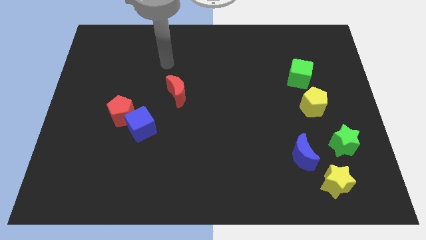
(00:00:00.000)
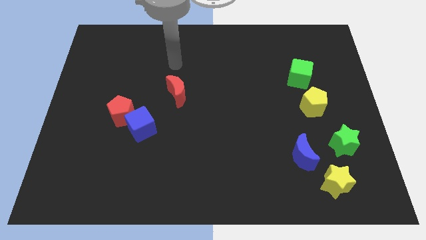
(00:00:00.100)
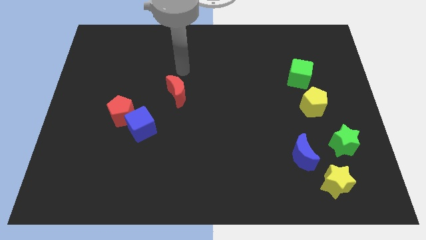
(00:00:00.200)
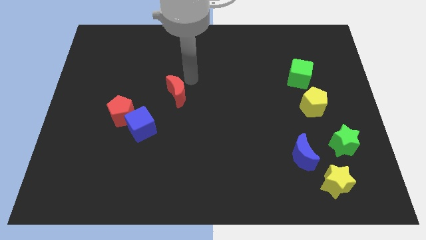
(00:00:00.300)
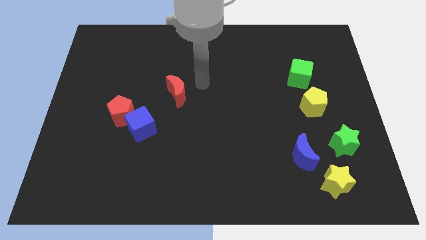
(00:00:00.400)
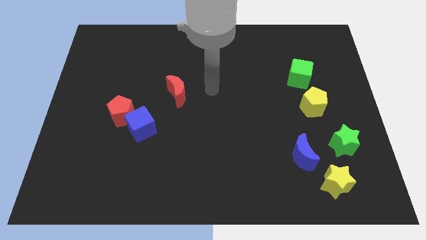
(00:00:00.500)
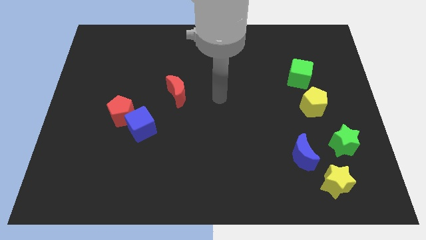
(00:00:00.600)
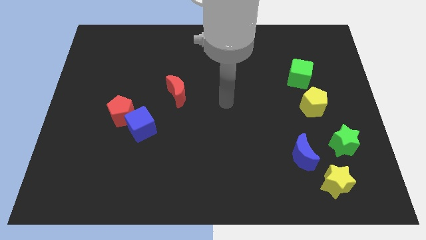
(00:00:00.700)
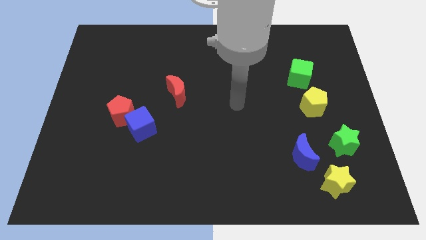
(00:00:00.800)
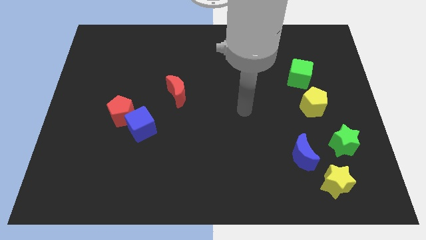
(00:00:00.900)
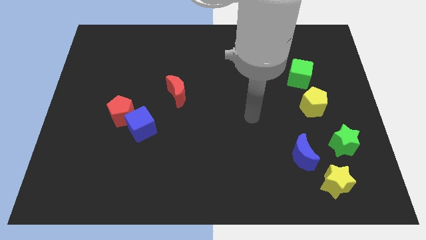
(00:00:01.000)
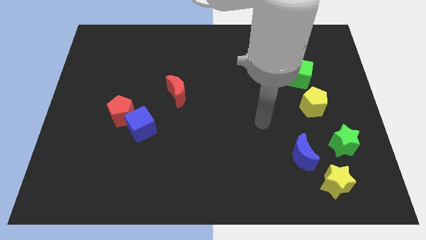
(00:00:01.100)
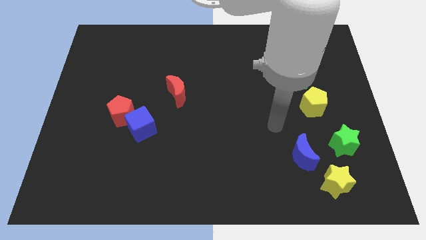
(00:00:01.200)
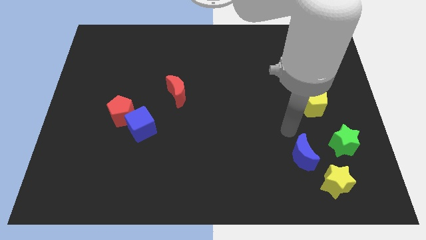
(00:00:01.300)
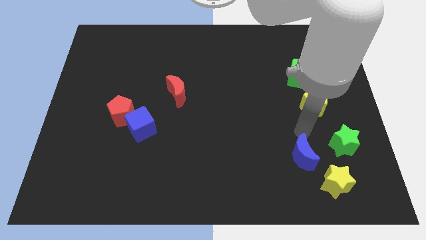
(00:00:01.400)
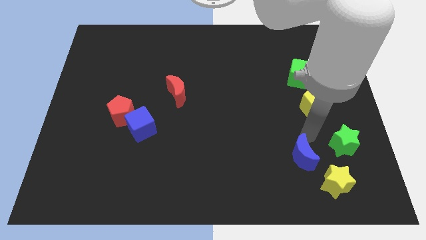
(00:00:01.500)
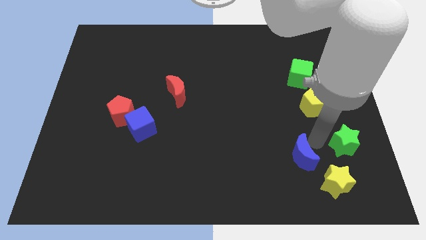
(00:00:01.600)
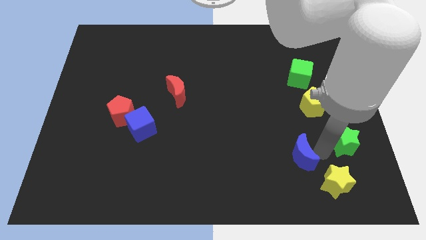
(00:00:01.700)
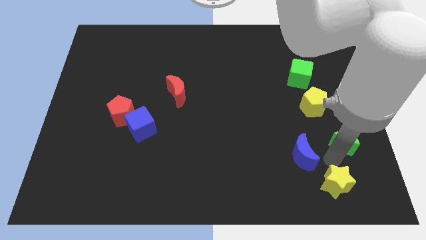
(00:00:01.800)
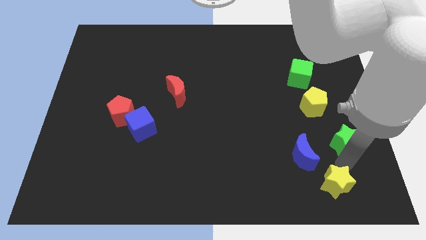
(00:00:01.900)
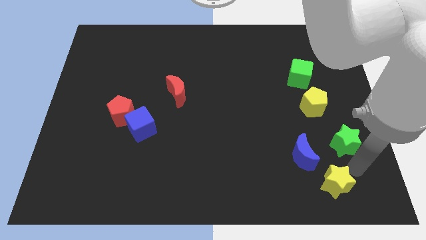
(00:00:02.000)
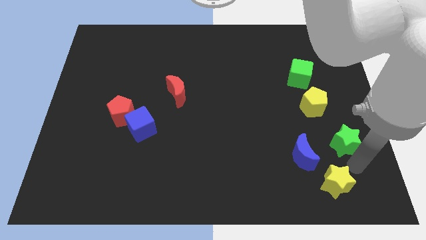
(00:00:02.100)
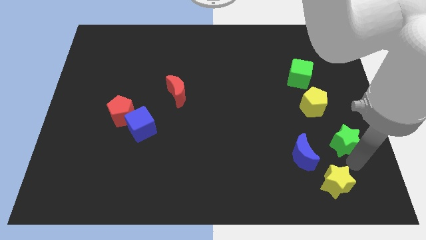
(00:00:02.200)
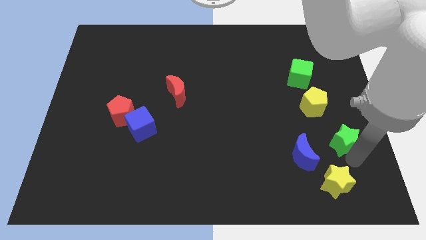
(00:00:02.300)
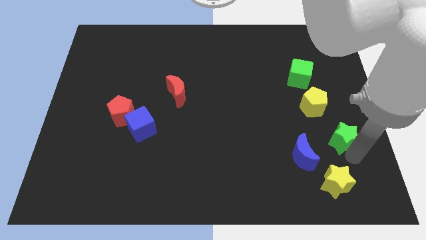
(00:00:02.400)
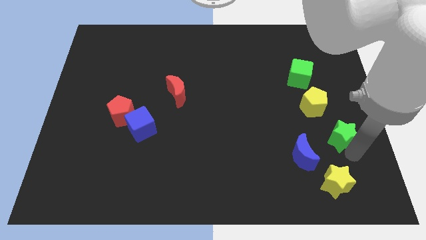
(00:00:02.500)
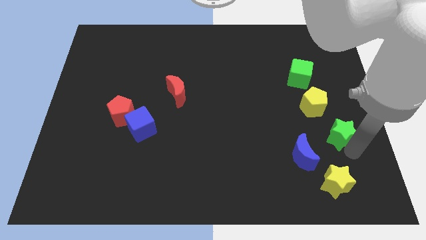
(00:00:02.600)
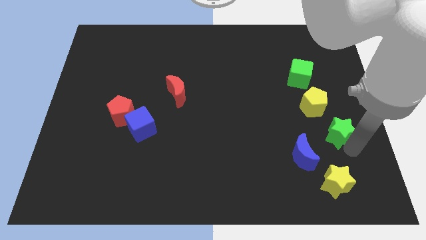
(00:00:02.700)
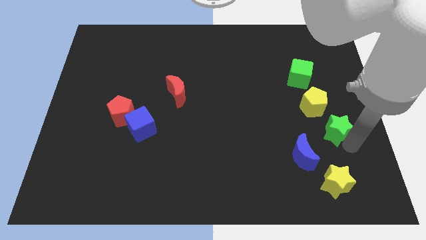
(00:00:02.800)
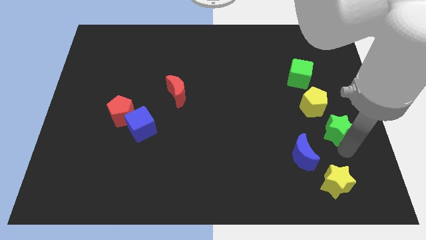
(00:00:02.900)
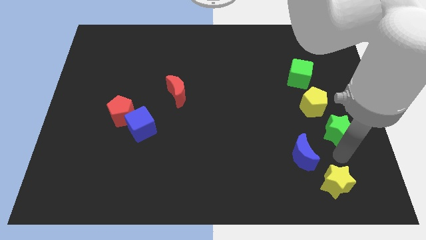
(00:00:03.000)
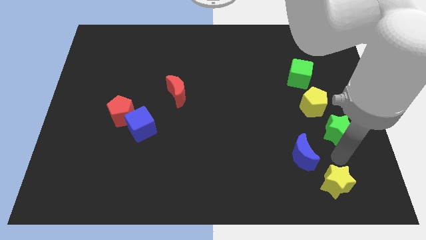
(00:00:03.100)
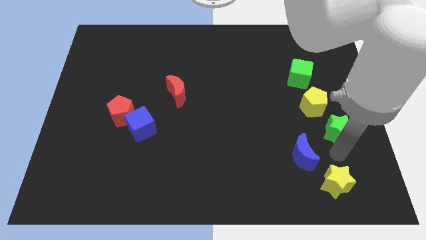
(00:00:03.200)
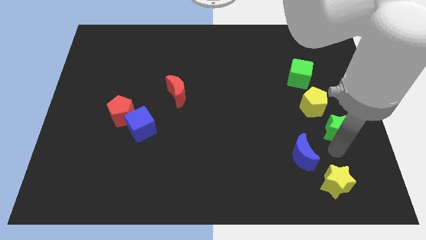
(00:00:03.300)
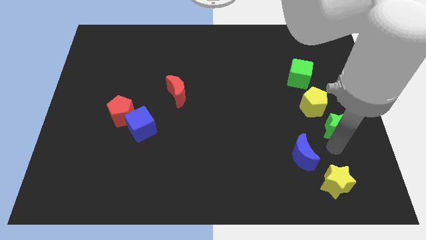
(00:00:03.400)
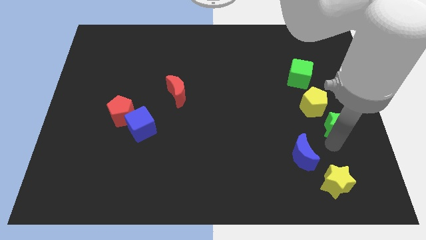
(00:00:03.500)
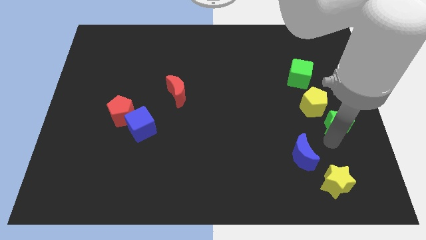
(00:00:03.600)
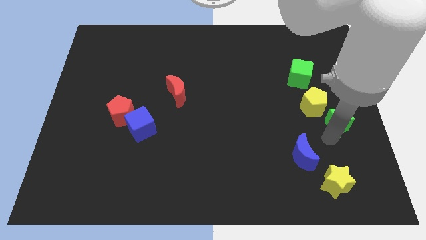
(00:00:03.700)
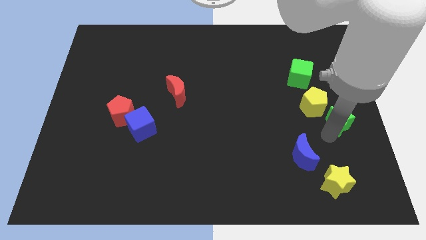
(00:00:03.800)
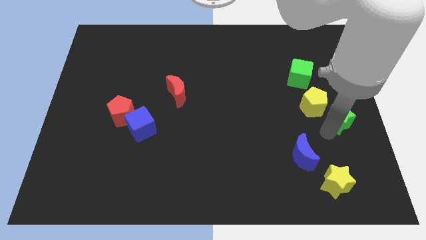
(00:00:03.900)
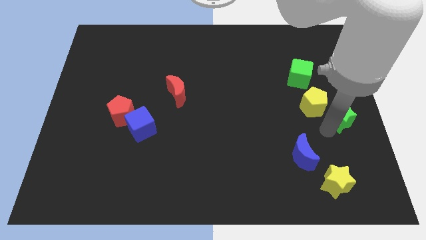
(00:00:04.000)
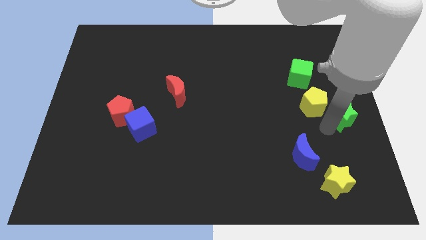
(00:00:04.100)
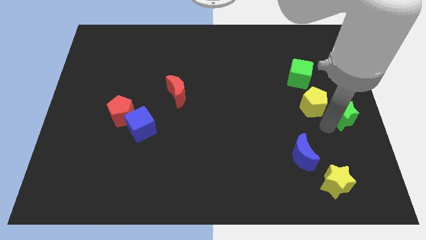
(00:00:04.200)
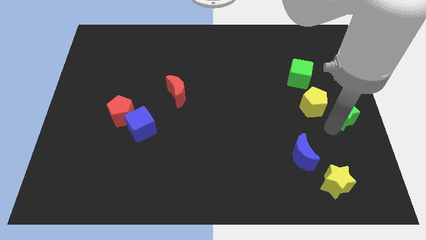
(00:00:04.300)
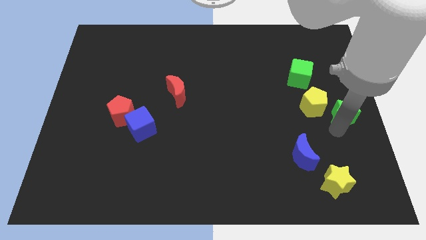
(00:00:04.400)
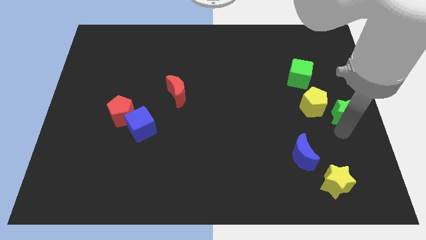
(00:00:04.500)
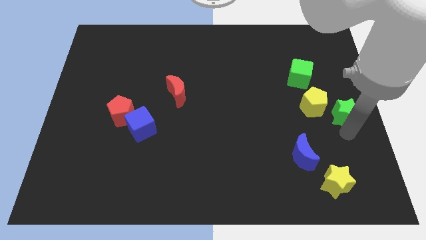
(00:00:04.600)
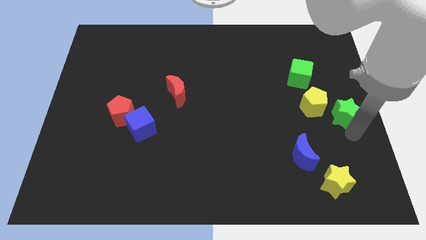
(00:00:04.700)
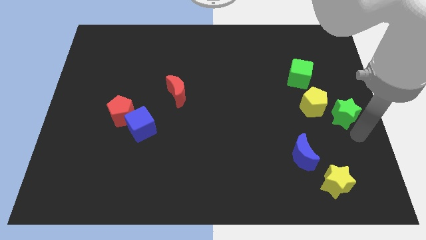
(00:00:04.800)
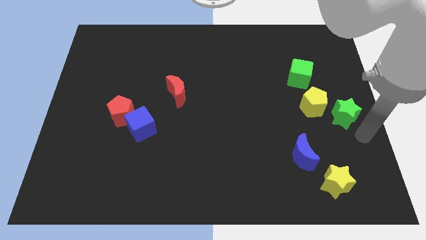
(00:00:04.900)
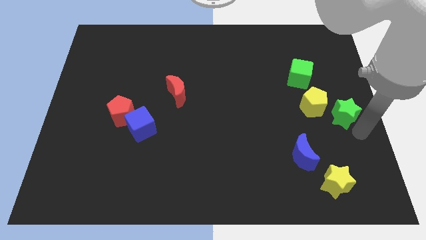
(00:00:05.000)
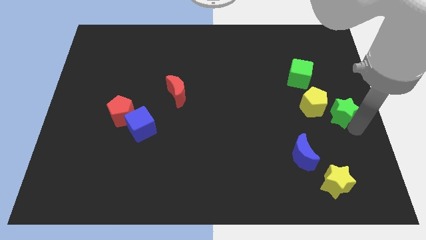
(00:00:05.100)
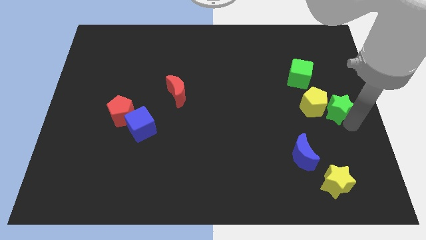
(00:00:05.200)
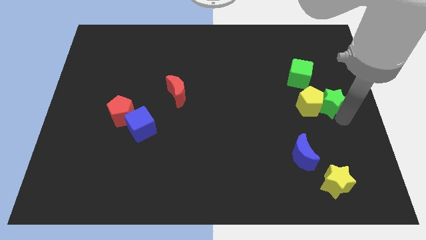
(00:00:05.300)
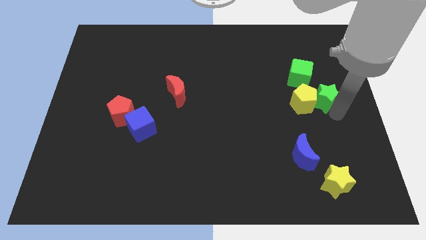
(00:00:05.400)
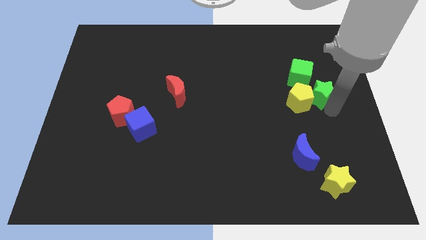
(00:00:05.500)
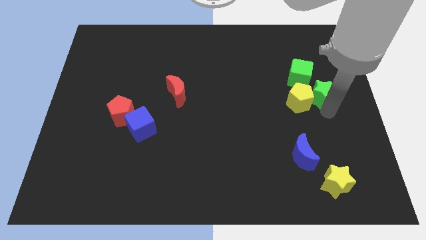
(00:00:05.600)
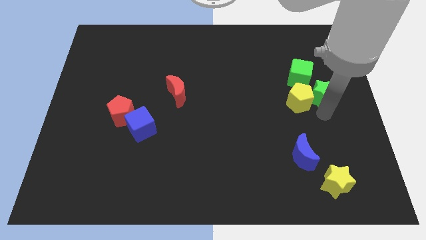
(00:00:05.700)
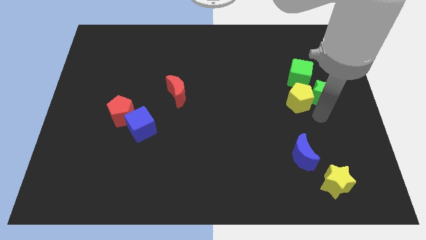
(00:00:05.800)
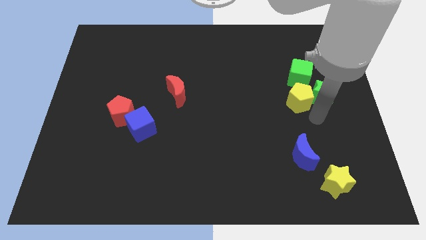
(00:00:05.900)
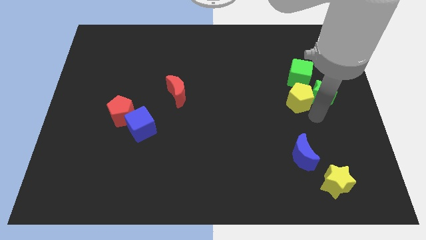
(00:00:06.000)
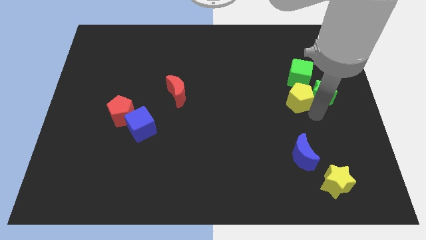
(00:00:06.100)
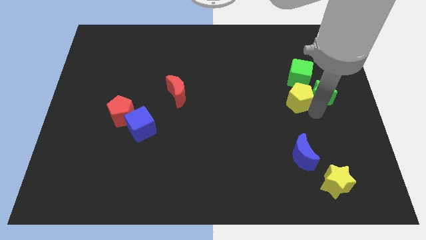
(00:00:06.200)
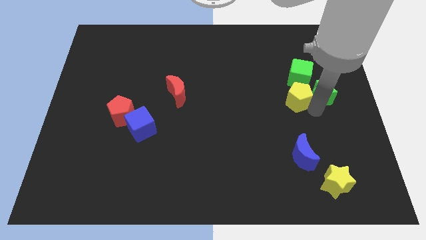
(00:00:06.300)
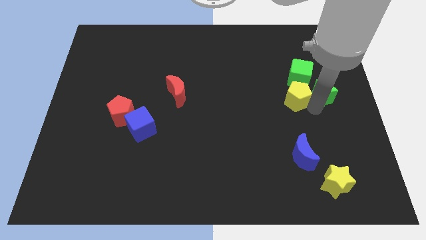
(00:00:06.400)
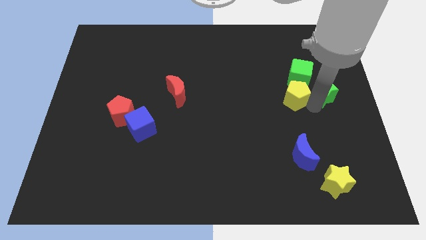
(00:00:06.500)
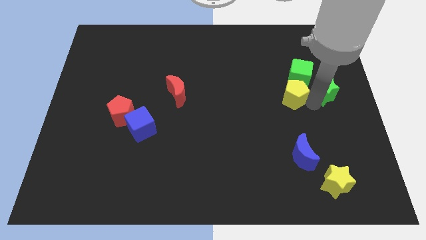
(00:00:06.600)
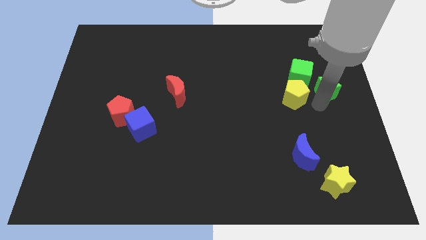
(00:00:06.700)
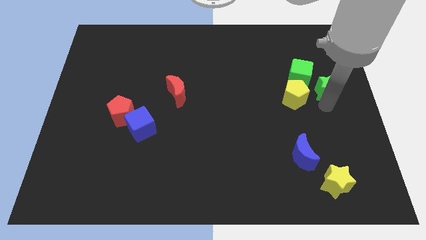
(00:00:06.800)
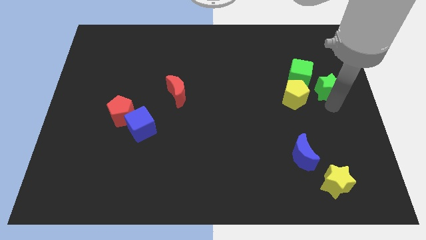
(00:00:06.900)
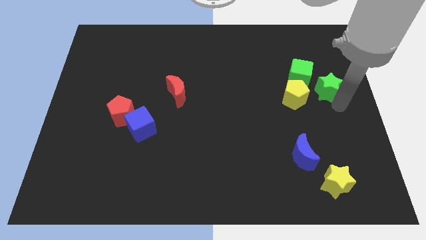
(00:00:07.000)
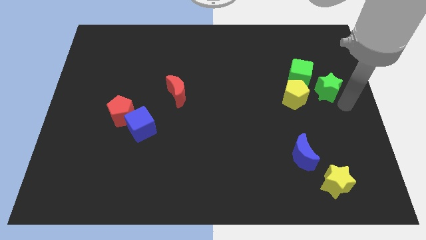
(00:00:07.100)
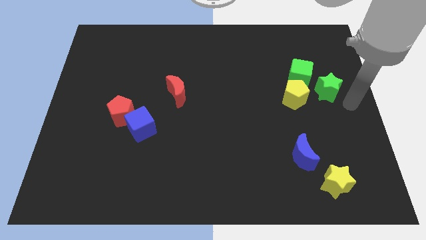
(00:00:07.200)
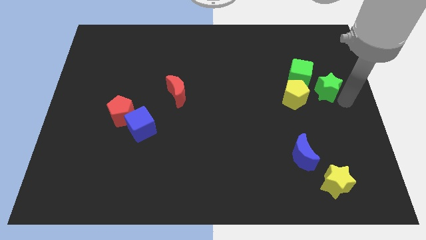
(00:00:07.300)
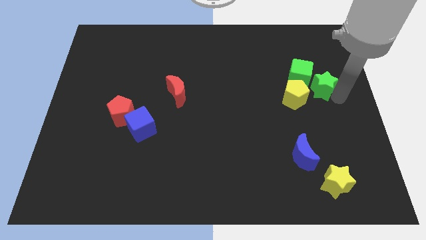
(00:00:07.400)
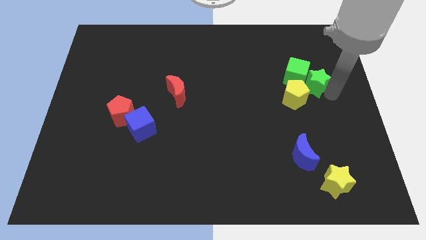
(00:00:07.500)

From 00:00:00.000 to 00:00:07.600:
move the green star next to the green cube
